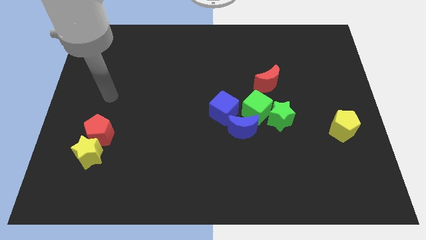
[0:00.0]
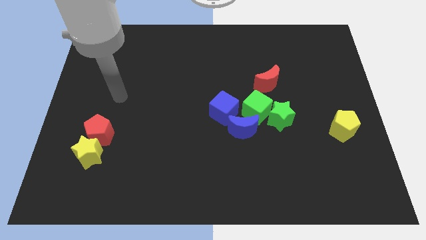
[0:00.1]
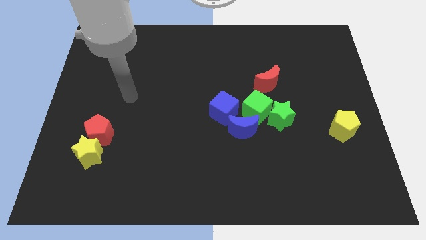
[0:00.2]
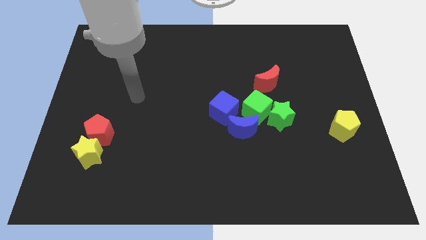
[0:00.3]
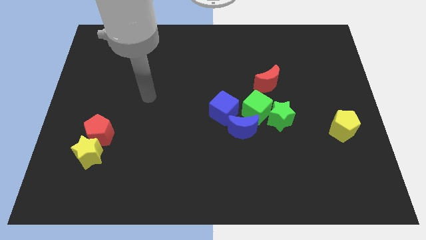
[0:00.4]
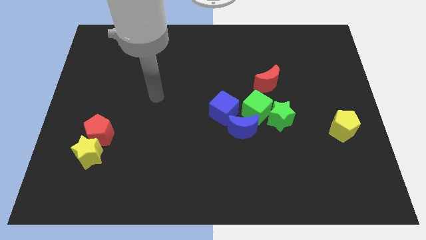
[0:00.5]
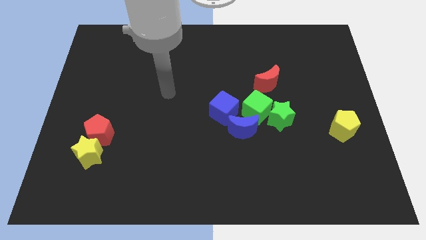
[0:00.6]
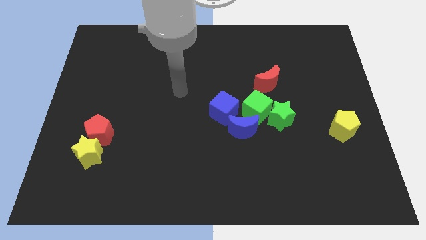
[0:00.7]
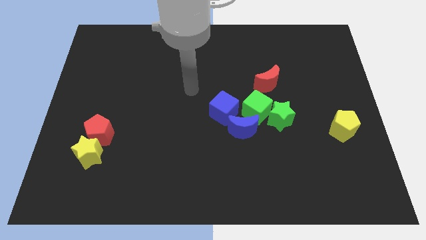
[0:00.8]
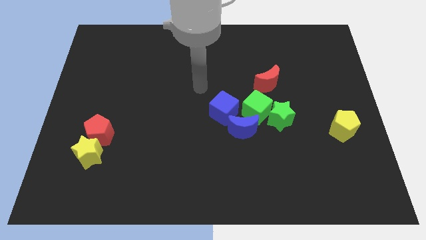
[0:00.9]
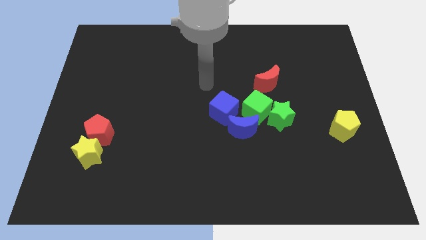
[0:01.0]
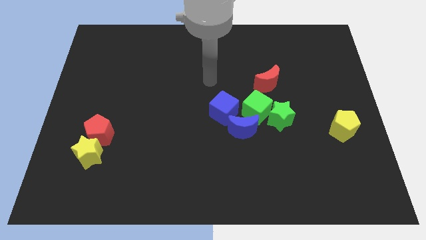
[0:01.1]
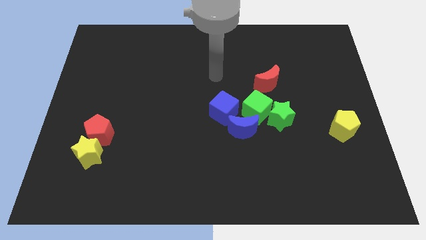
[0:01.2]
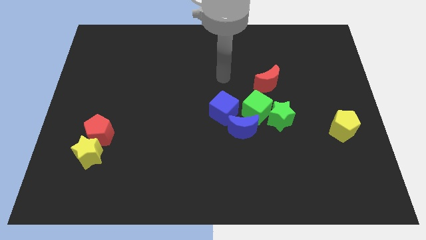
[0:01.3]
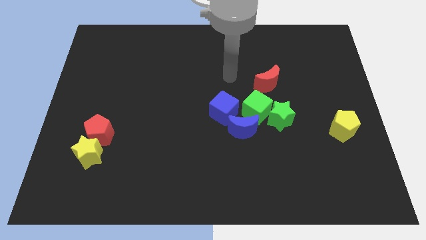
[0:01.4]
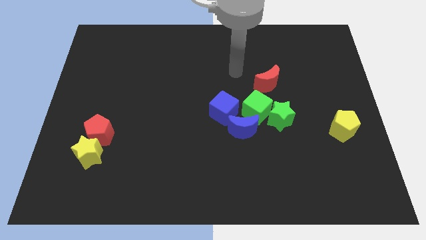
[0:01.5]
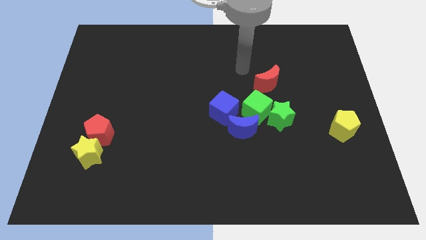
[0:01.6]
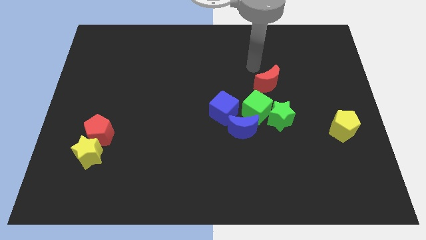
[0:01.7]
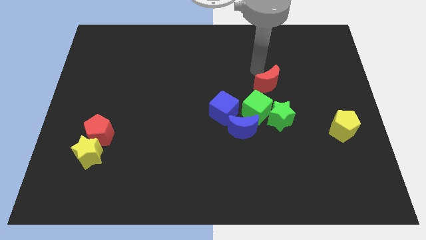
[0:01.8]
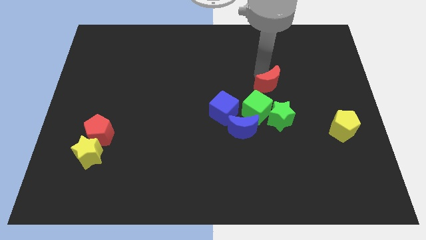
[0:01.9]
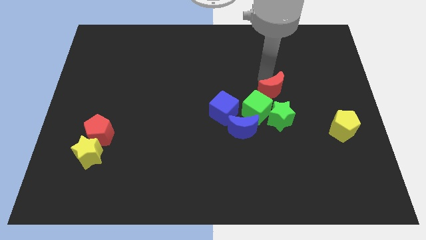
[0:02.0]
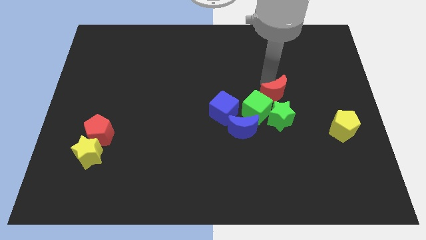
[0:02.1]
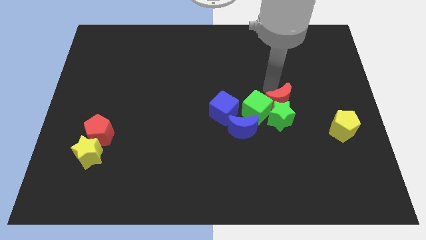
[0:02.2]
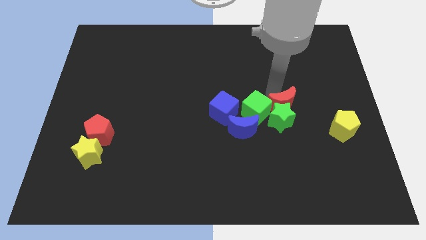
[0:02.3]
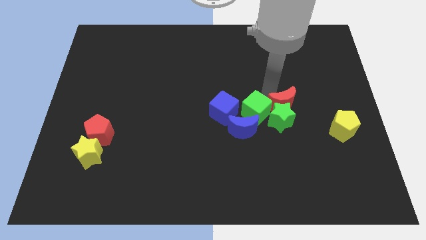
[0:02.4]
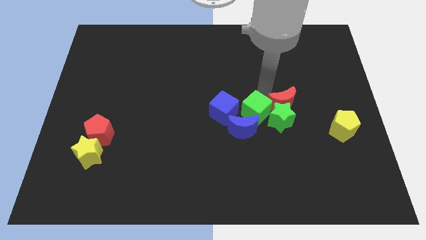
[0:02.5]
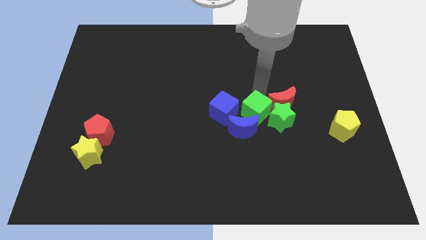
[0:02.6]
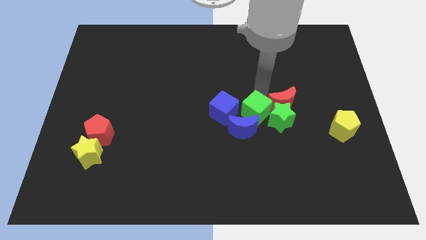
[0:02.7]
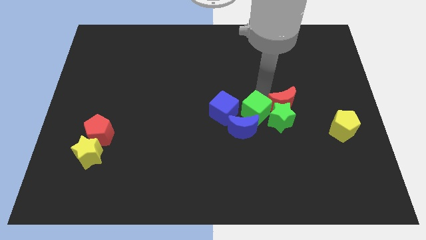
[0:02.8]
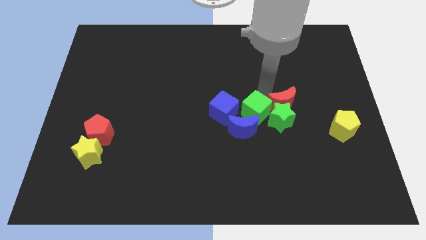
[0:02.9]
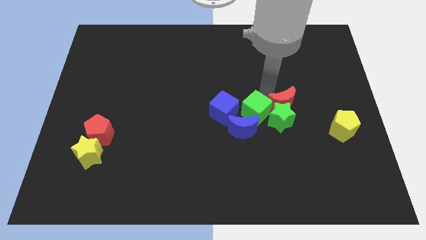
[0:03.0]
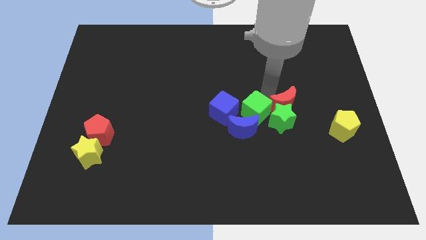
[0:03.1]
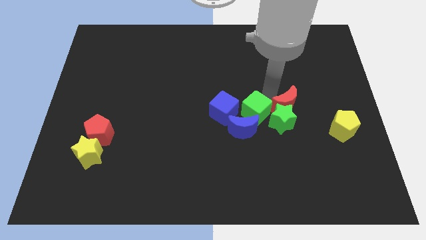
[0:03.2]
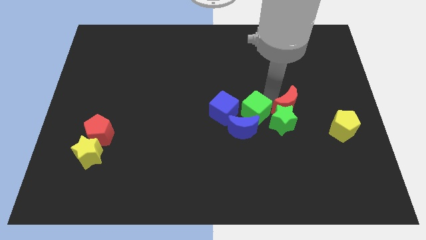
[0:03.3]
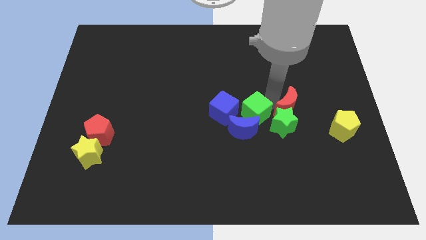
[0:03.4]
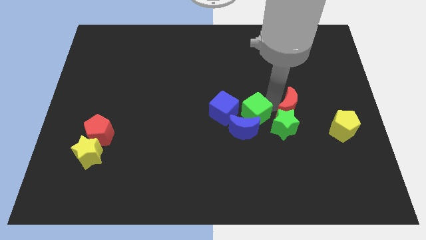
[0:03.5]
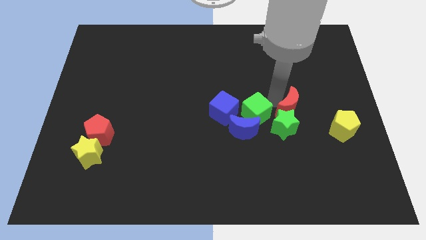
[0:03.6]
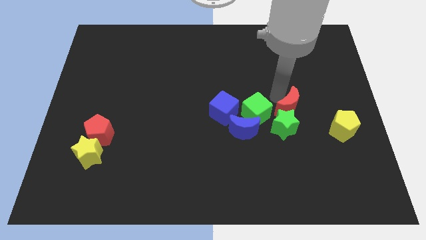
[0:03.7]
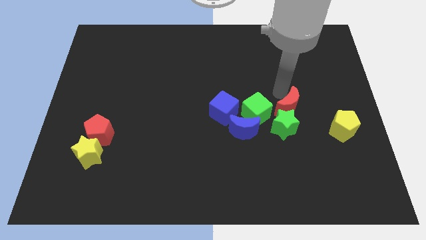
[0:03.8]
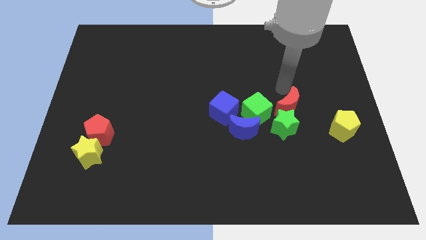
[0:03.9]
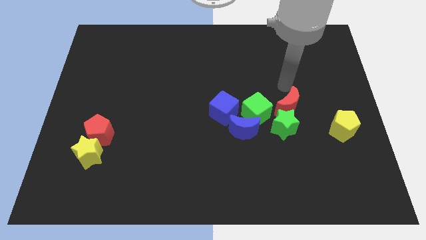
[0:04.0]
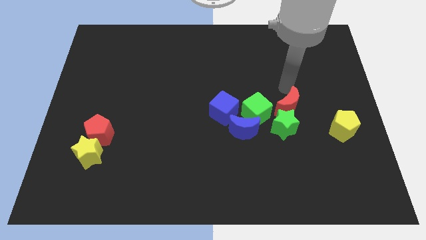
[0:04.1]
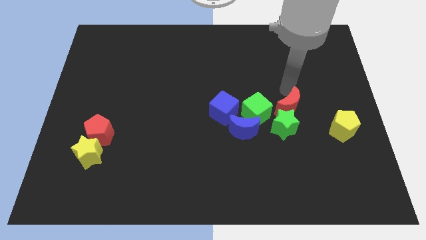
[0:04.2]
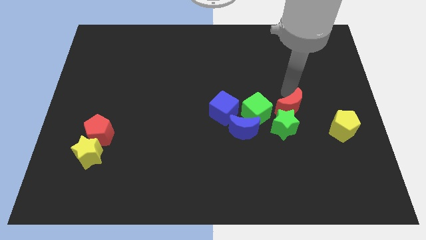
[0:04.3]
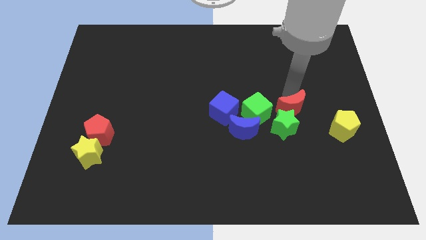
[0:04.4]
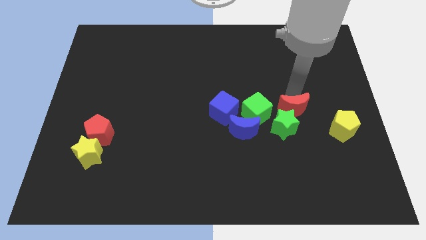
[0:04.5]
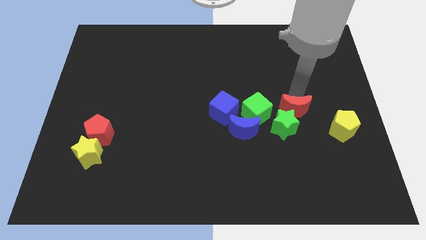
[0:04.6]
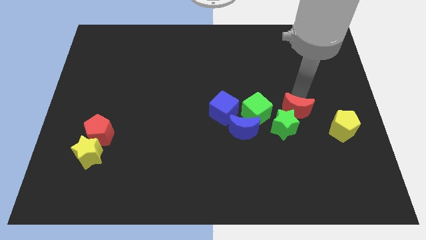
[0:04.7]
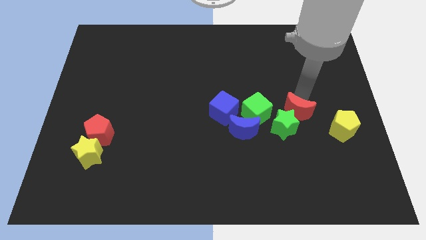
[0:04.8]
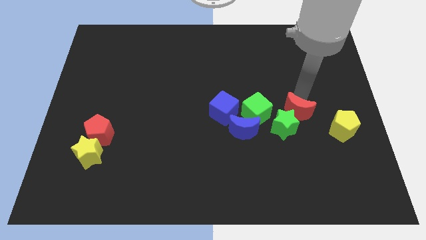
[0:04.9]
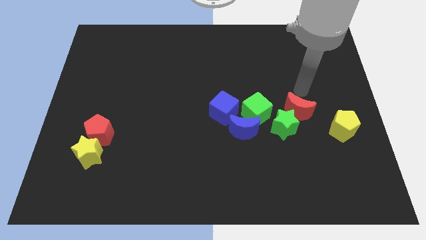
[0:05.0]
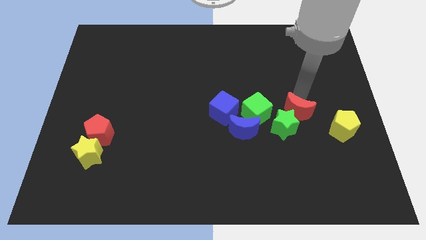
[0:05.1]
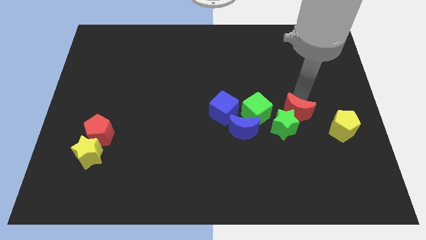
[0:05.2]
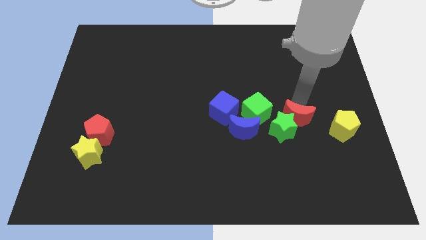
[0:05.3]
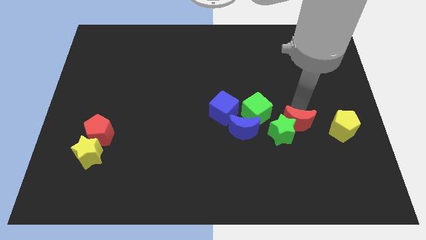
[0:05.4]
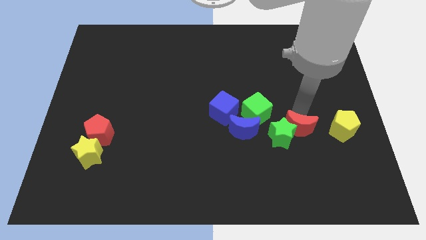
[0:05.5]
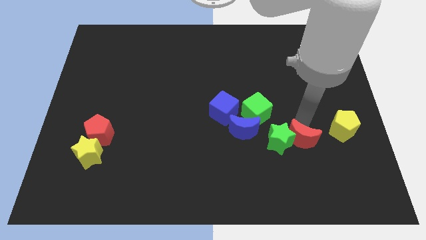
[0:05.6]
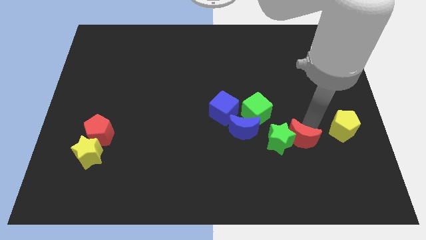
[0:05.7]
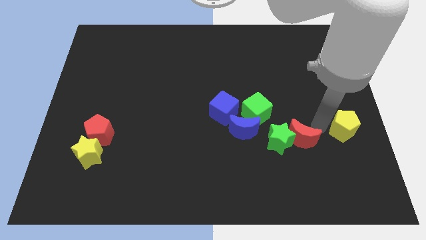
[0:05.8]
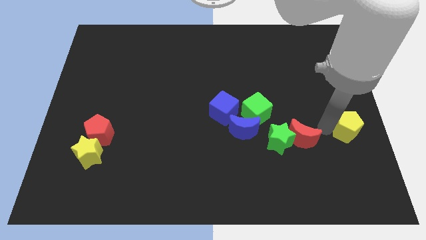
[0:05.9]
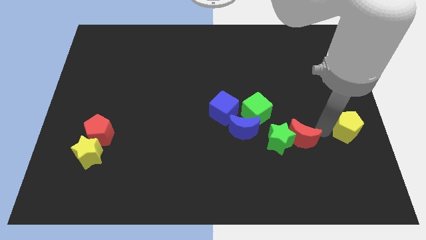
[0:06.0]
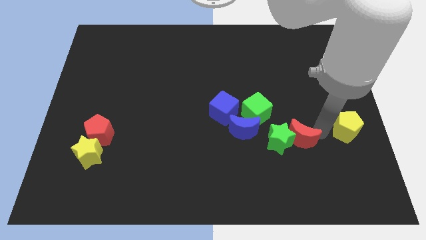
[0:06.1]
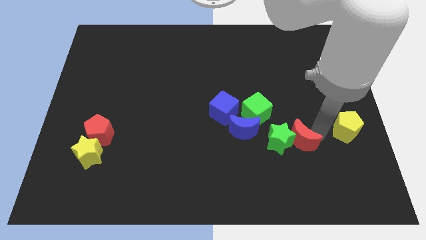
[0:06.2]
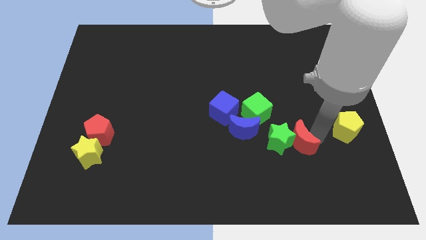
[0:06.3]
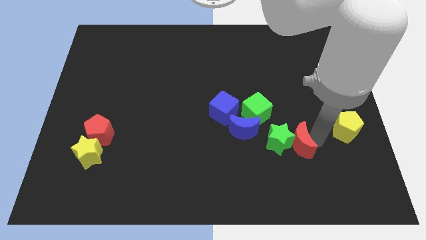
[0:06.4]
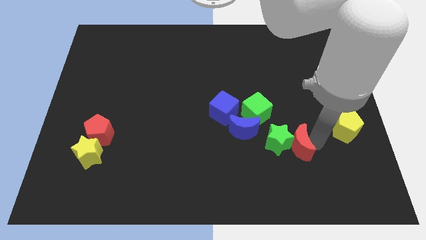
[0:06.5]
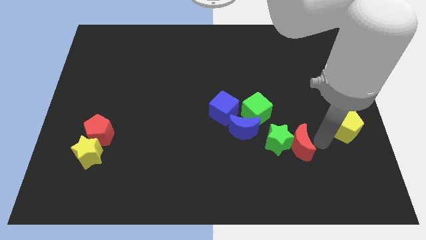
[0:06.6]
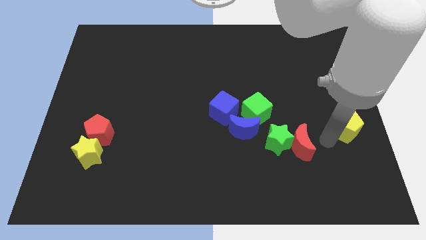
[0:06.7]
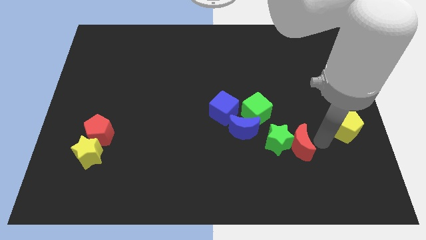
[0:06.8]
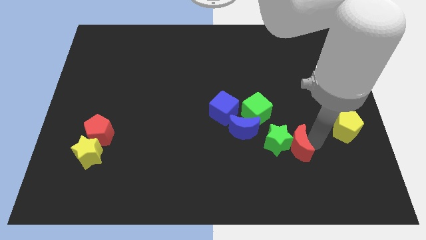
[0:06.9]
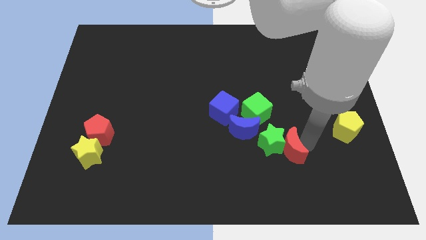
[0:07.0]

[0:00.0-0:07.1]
push the red moon to the bottom right of the blue moon

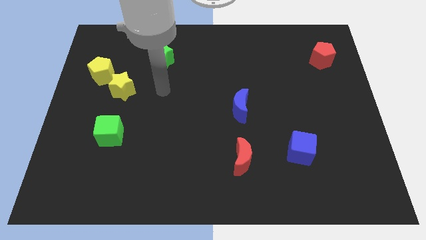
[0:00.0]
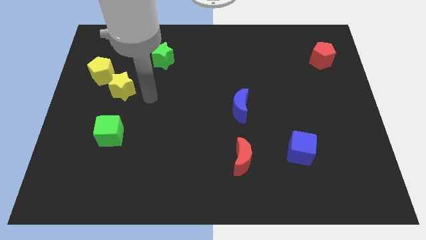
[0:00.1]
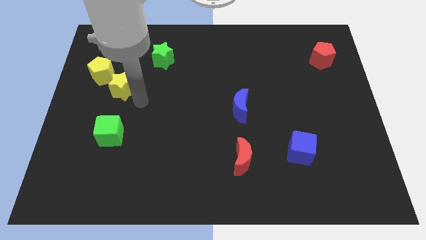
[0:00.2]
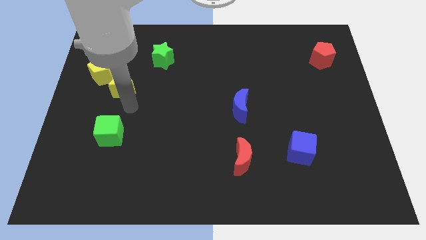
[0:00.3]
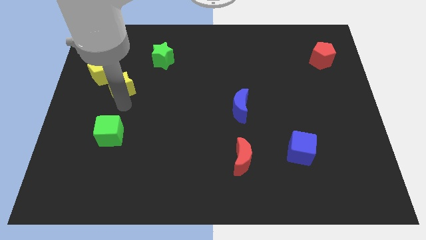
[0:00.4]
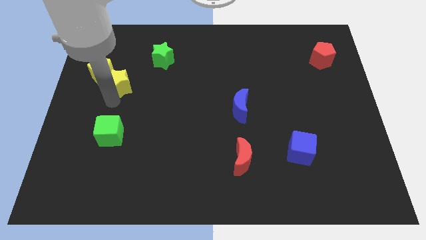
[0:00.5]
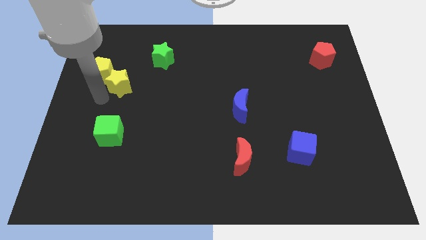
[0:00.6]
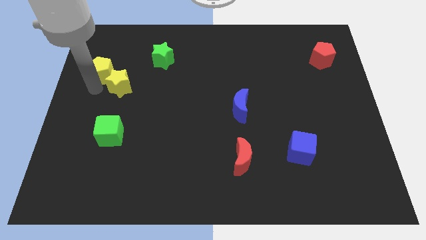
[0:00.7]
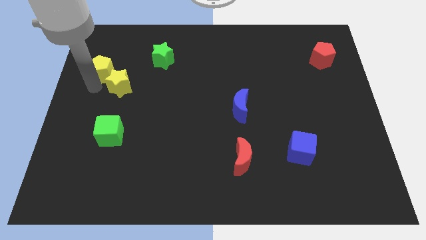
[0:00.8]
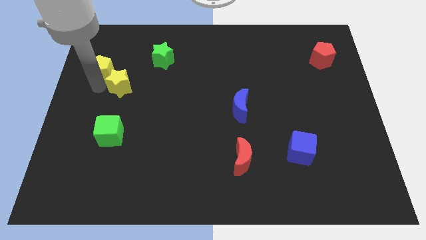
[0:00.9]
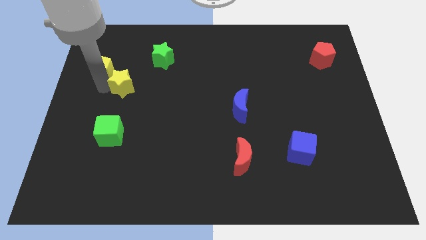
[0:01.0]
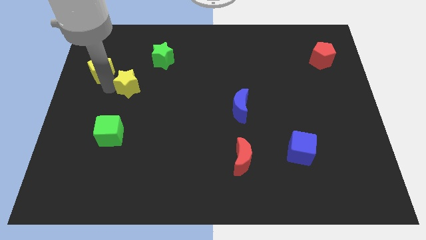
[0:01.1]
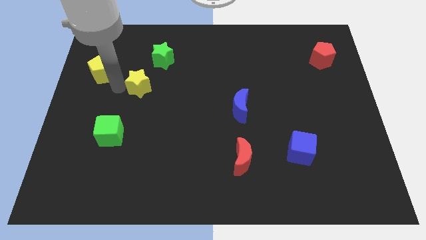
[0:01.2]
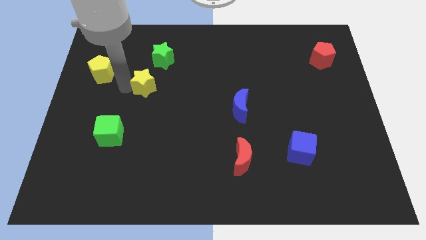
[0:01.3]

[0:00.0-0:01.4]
put the yellow star to the bottom of the green star
